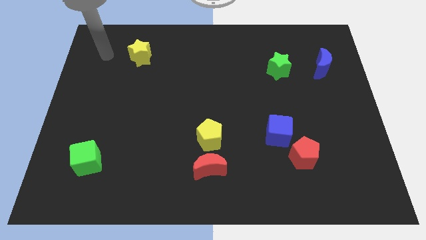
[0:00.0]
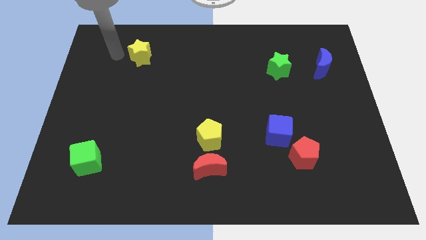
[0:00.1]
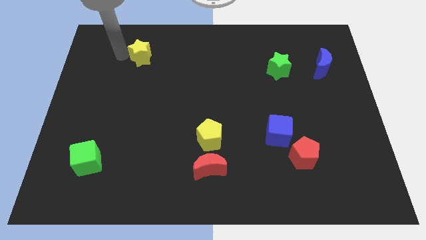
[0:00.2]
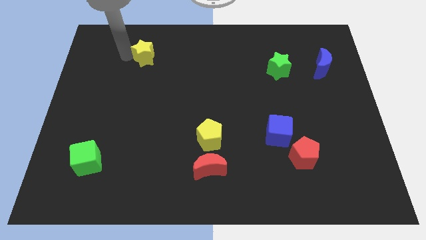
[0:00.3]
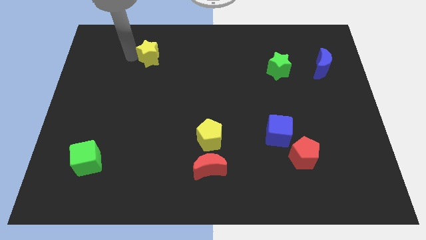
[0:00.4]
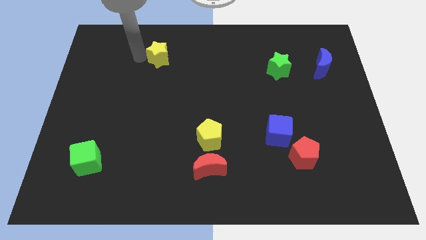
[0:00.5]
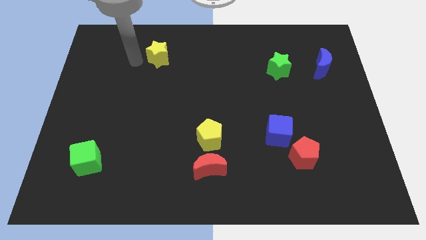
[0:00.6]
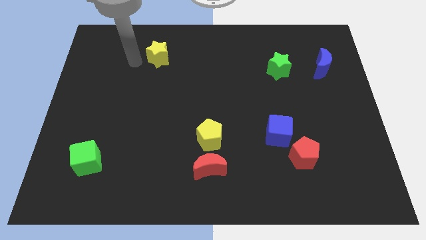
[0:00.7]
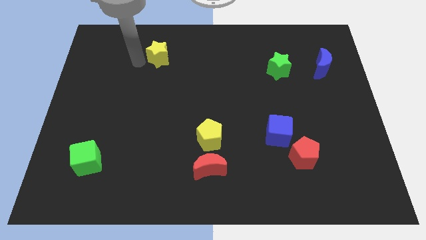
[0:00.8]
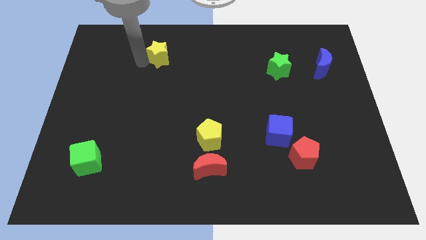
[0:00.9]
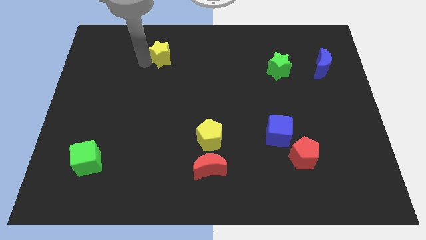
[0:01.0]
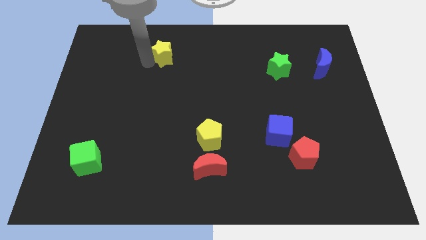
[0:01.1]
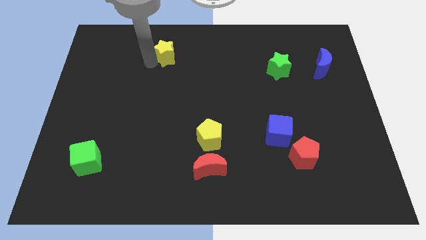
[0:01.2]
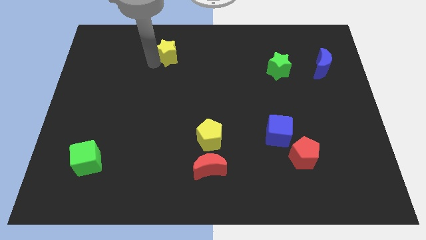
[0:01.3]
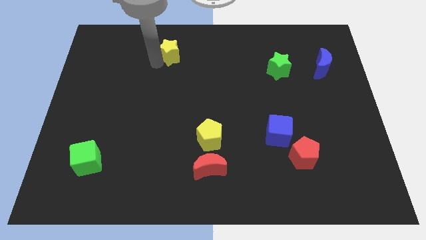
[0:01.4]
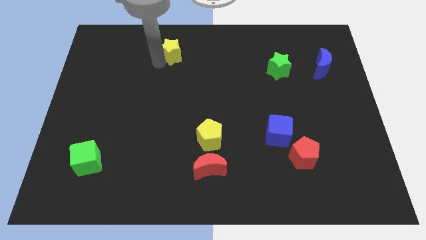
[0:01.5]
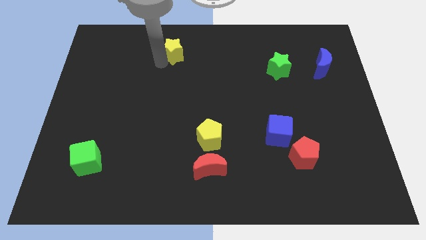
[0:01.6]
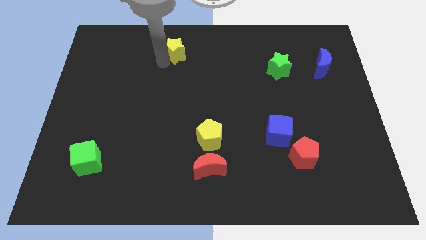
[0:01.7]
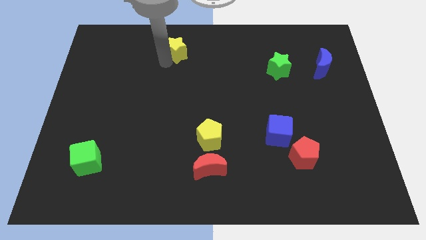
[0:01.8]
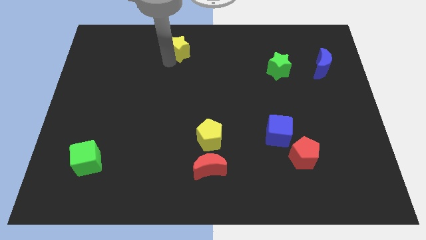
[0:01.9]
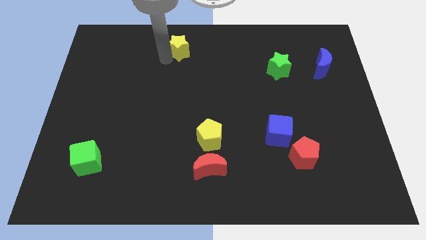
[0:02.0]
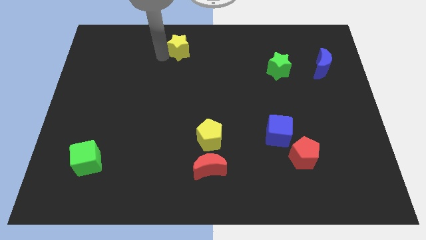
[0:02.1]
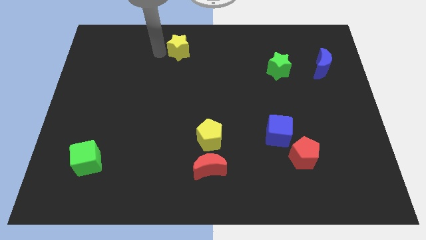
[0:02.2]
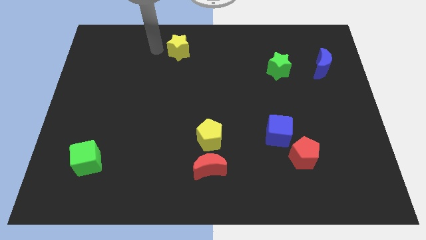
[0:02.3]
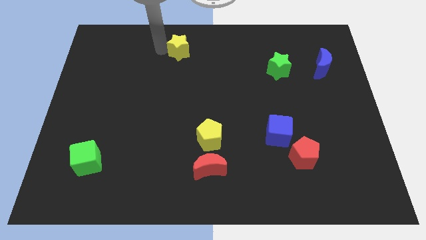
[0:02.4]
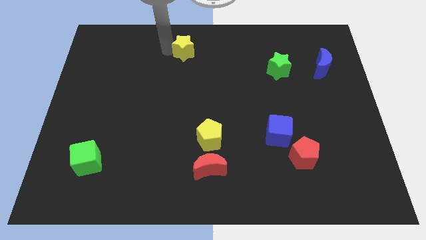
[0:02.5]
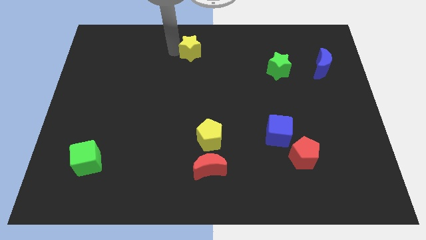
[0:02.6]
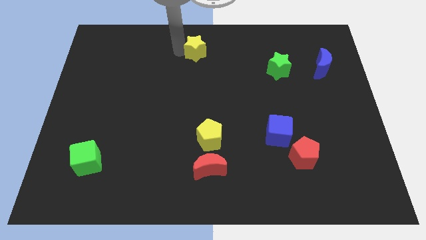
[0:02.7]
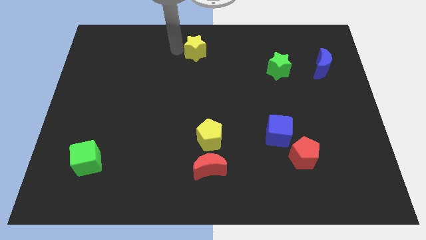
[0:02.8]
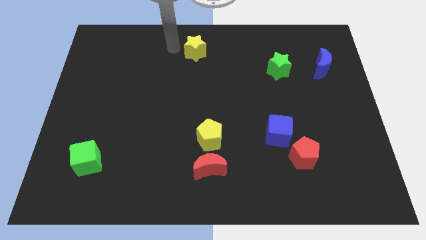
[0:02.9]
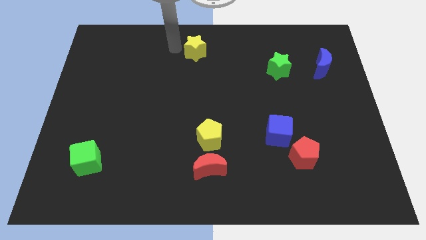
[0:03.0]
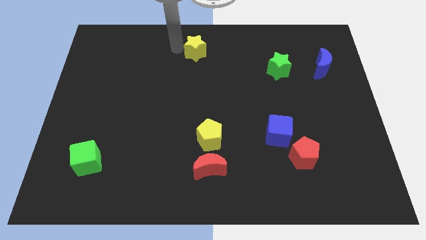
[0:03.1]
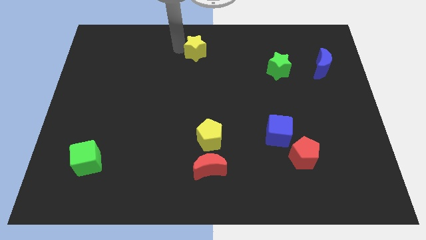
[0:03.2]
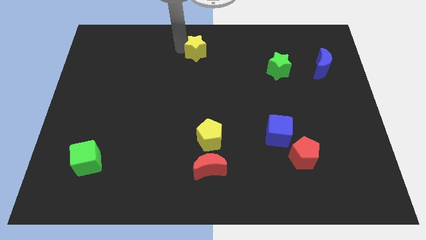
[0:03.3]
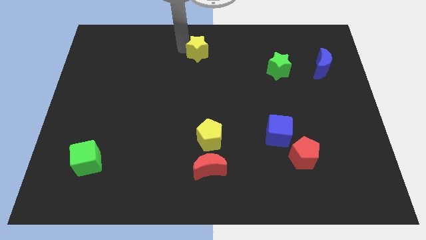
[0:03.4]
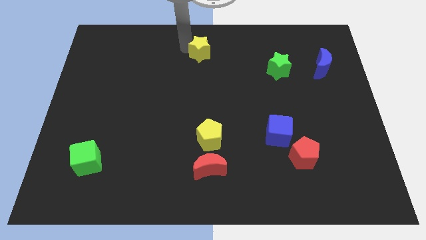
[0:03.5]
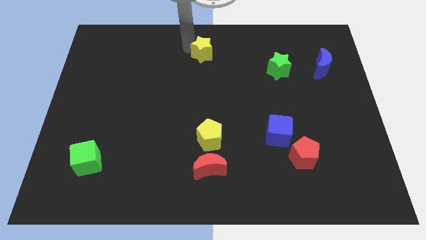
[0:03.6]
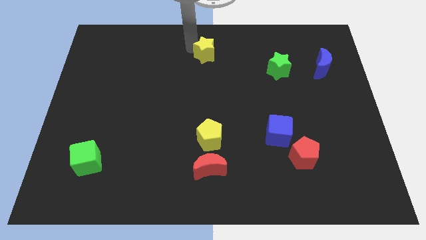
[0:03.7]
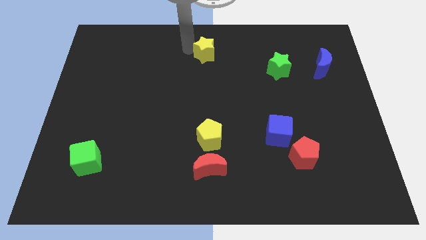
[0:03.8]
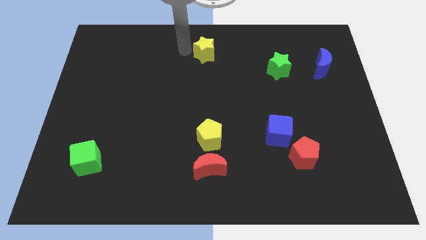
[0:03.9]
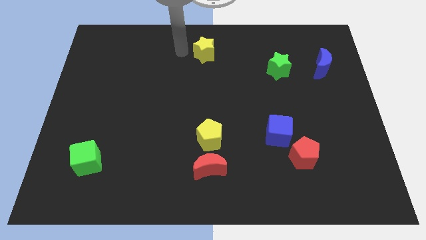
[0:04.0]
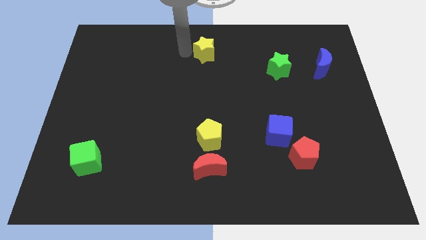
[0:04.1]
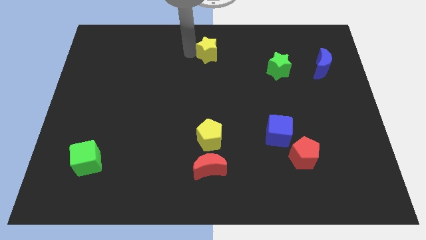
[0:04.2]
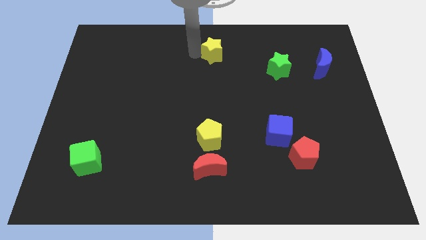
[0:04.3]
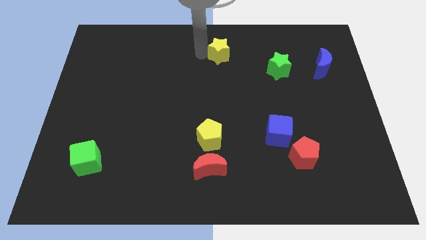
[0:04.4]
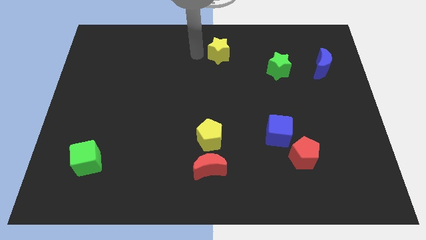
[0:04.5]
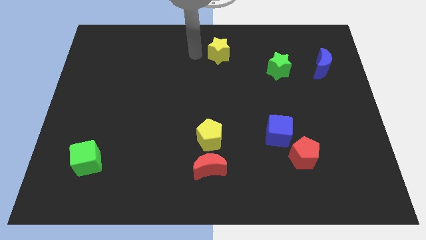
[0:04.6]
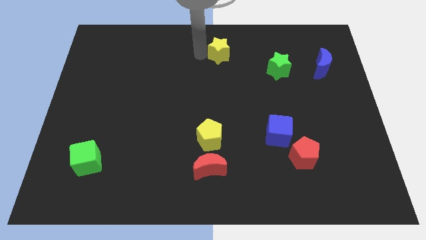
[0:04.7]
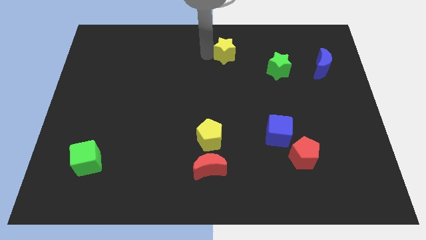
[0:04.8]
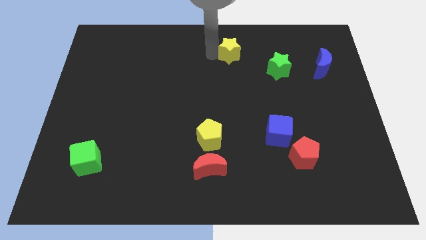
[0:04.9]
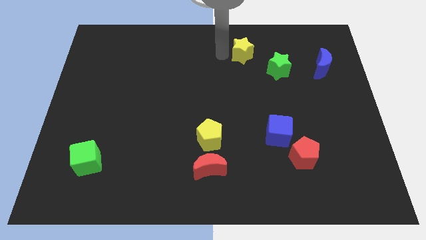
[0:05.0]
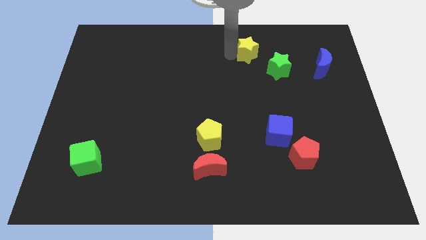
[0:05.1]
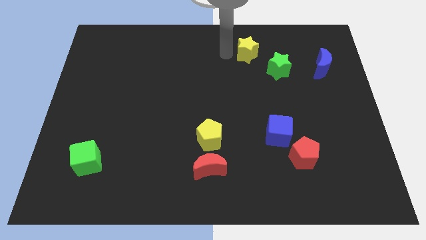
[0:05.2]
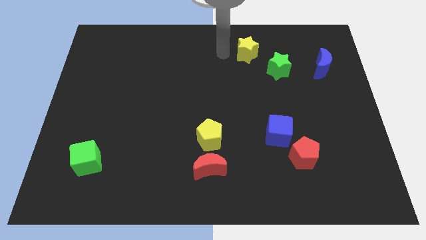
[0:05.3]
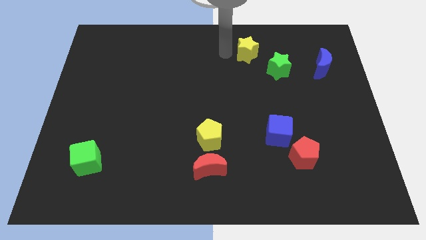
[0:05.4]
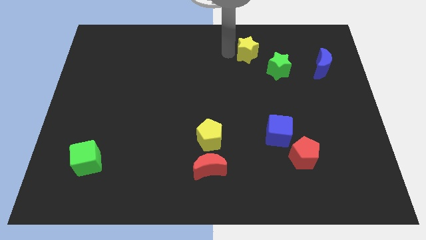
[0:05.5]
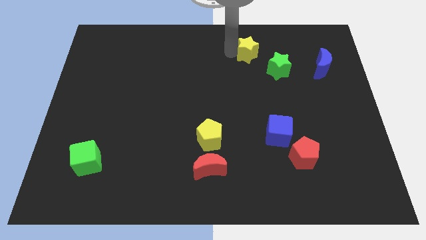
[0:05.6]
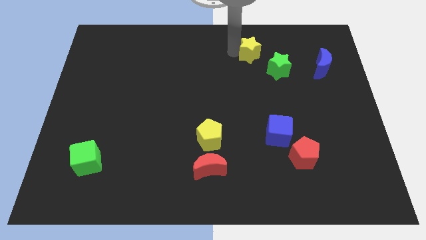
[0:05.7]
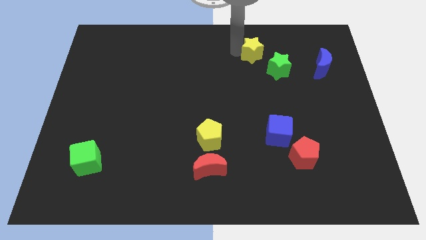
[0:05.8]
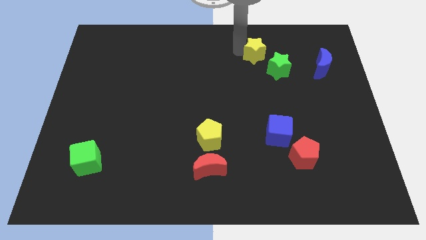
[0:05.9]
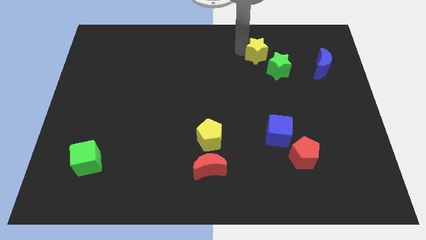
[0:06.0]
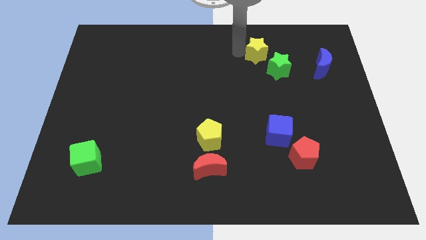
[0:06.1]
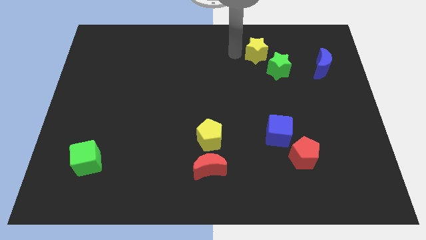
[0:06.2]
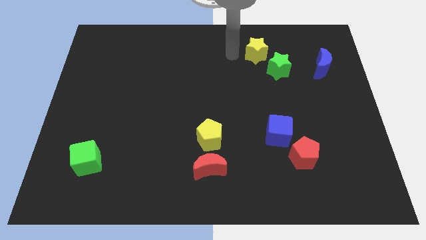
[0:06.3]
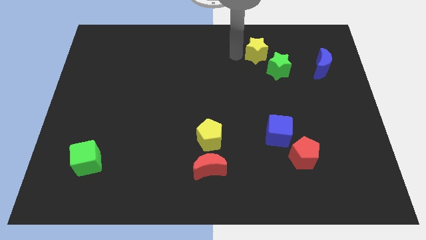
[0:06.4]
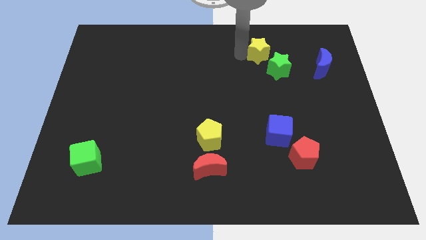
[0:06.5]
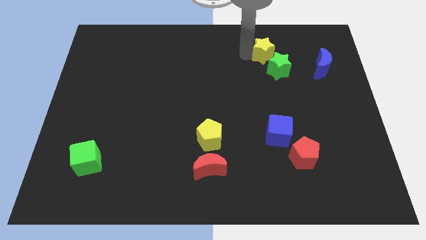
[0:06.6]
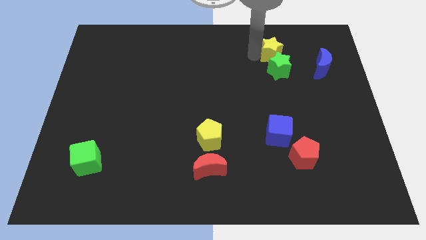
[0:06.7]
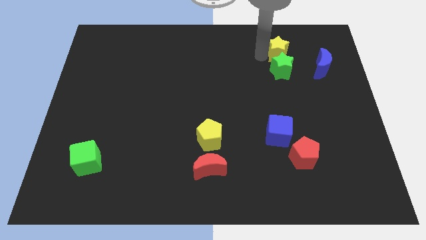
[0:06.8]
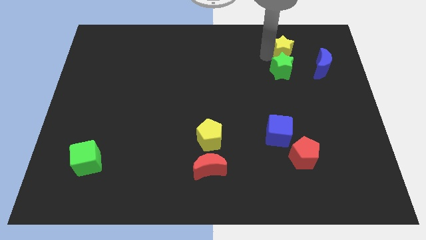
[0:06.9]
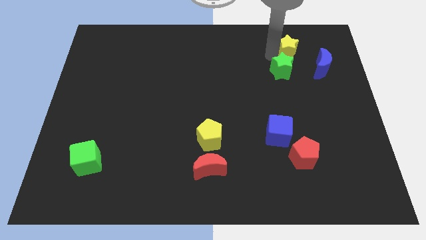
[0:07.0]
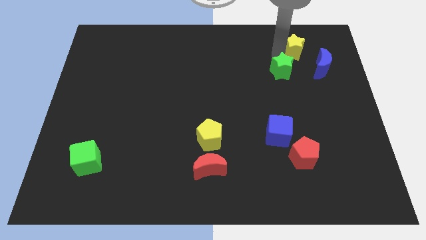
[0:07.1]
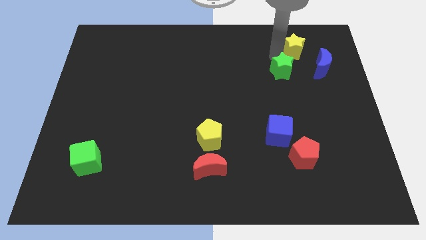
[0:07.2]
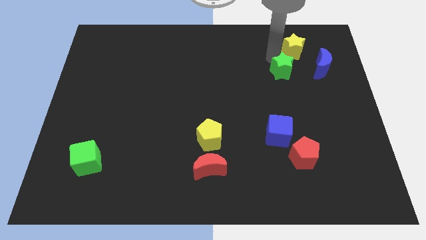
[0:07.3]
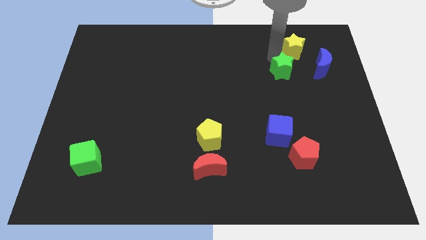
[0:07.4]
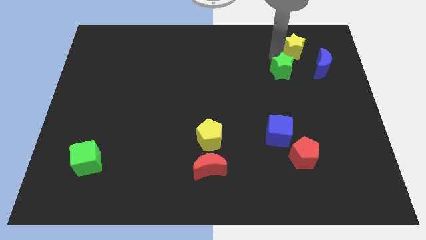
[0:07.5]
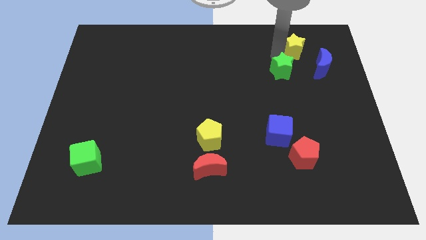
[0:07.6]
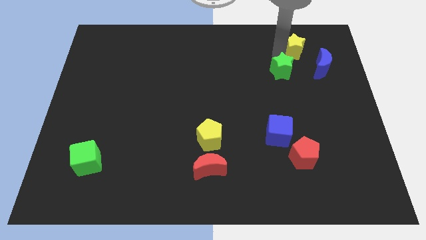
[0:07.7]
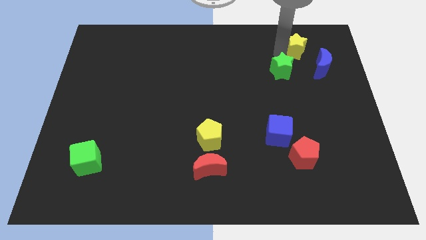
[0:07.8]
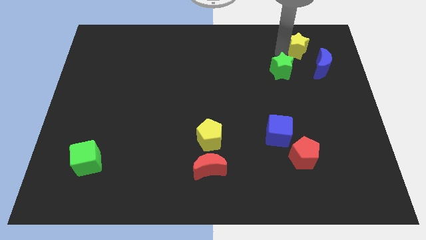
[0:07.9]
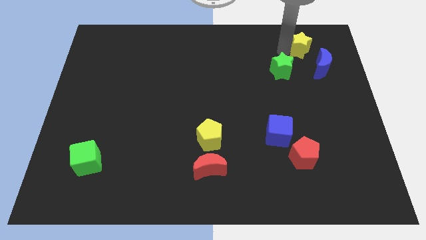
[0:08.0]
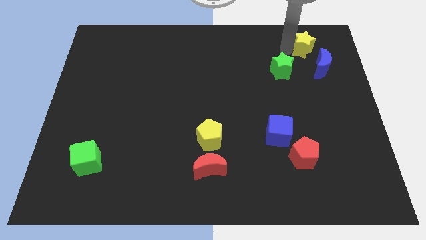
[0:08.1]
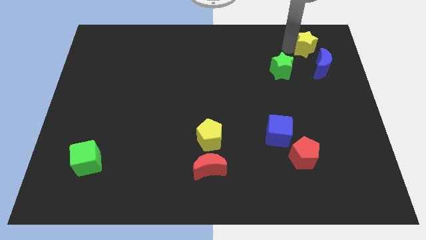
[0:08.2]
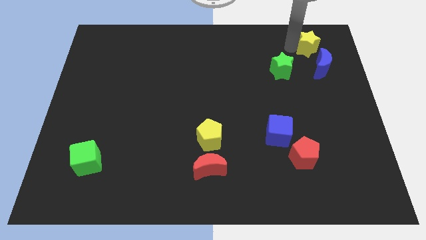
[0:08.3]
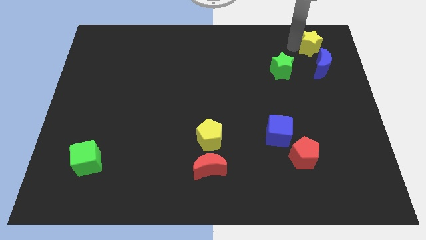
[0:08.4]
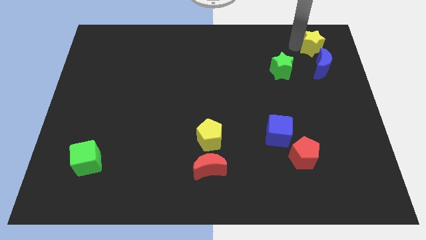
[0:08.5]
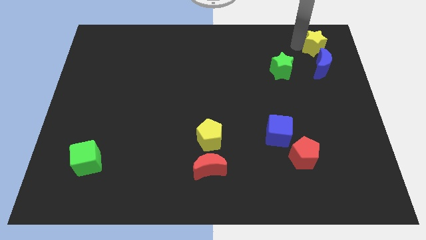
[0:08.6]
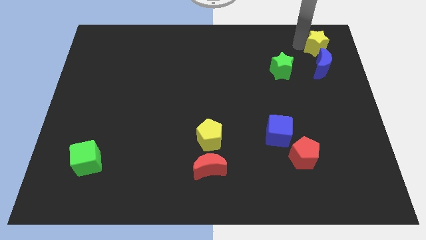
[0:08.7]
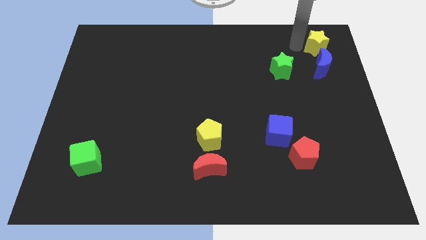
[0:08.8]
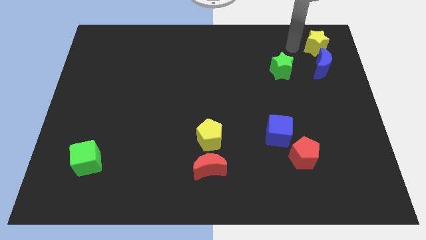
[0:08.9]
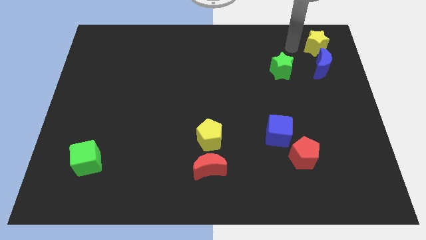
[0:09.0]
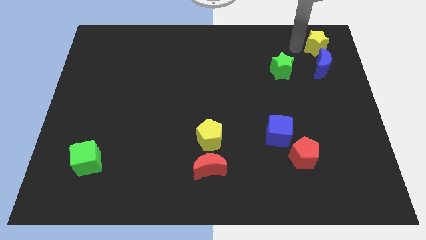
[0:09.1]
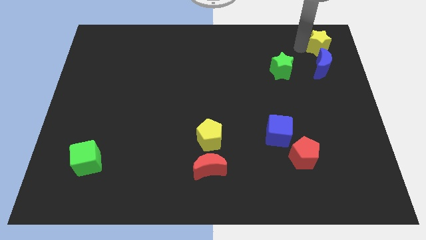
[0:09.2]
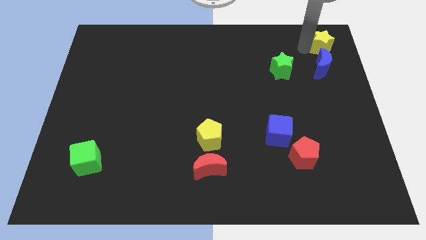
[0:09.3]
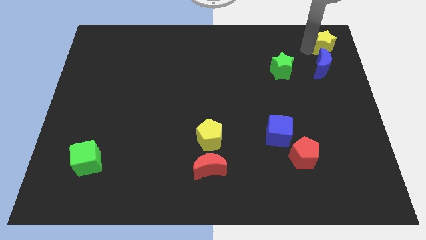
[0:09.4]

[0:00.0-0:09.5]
push the yellow star to the top right corner
